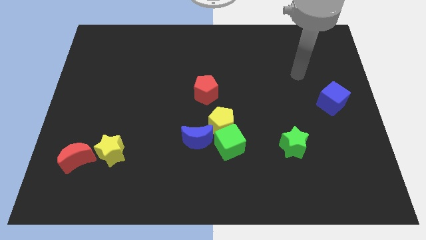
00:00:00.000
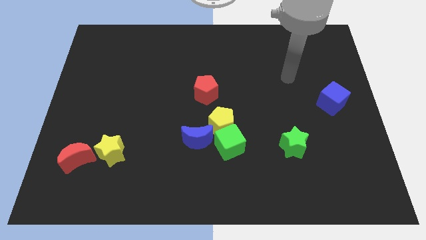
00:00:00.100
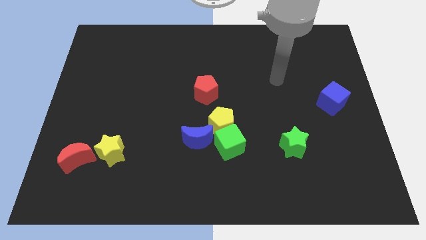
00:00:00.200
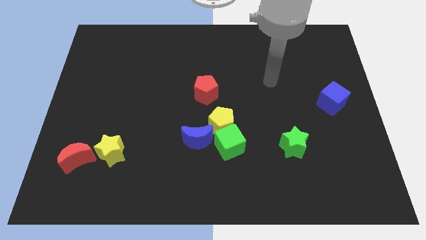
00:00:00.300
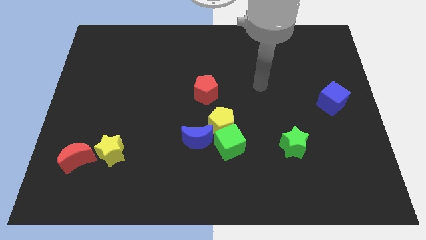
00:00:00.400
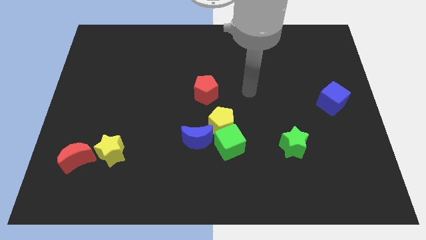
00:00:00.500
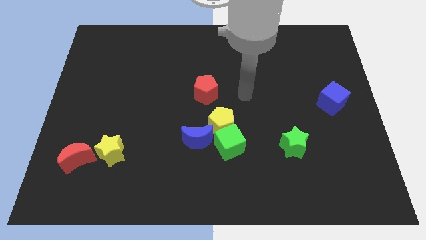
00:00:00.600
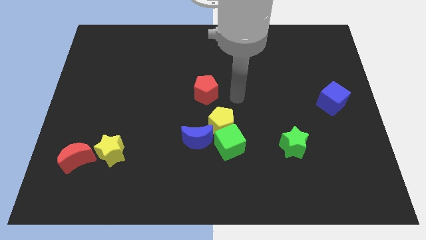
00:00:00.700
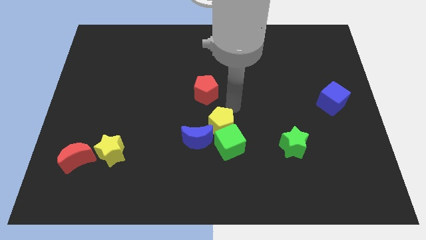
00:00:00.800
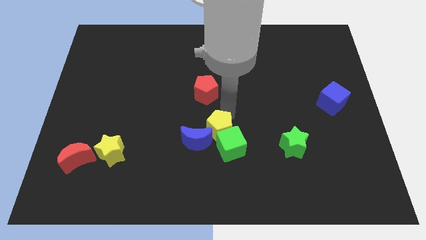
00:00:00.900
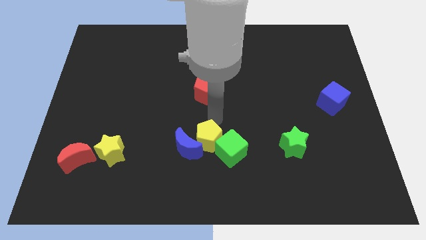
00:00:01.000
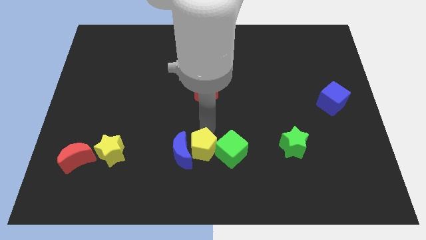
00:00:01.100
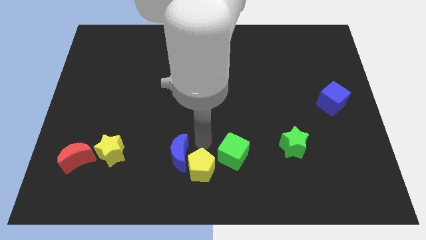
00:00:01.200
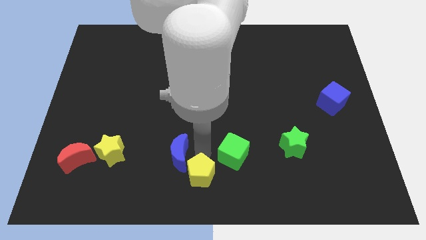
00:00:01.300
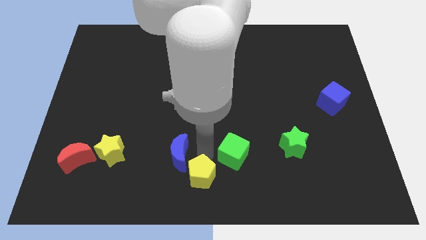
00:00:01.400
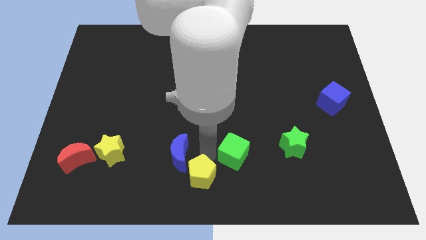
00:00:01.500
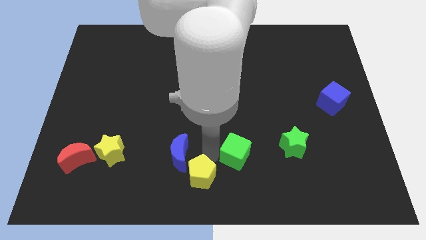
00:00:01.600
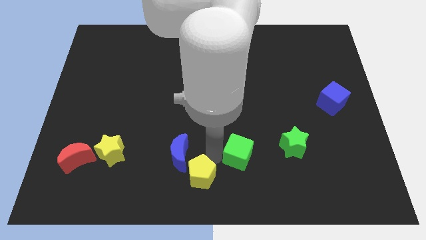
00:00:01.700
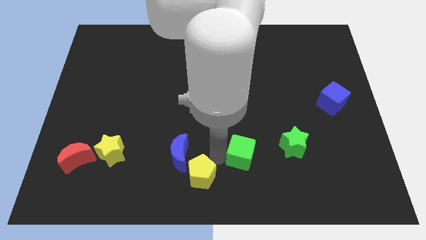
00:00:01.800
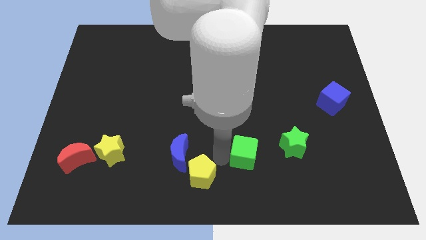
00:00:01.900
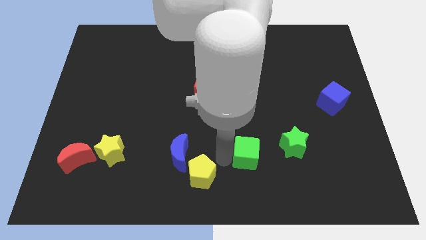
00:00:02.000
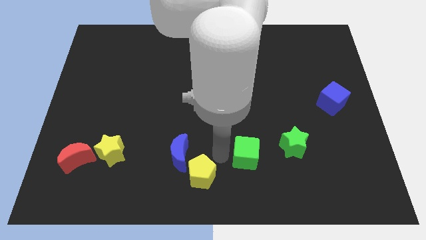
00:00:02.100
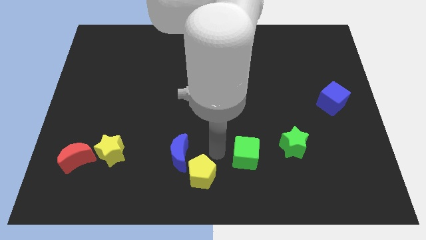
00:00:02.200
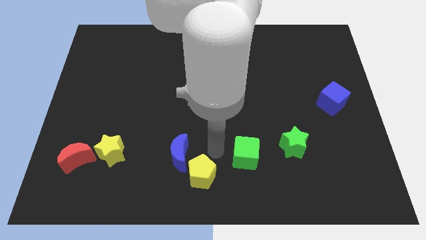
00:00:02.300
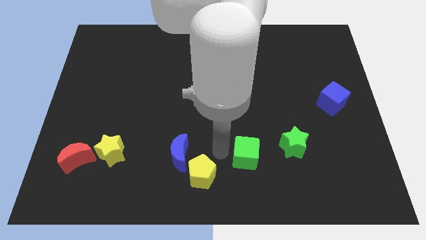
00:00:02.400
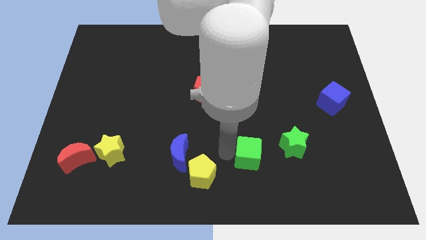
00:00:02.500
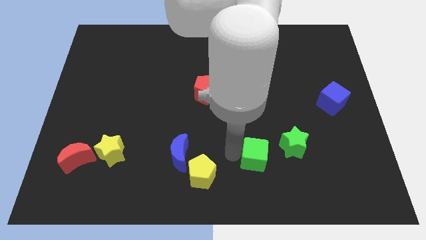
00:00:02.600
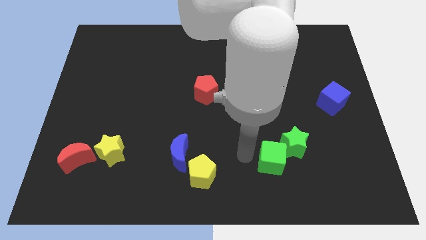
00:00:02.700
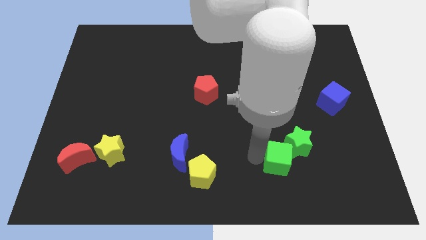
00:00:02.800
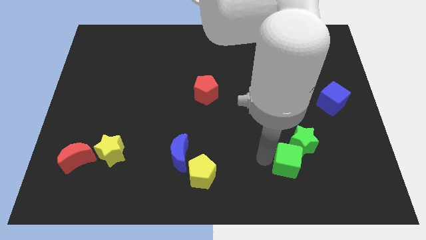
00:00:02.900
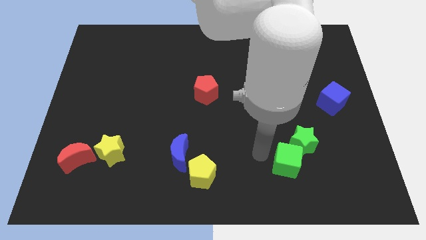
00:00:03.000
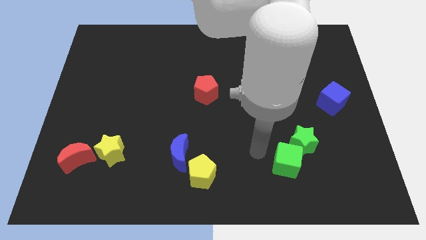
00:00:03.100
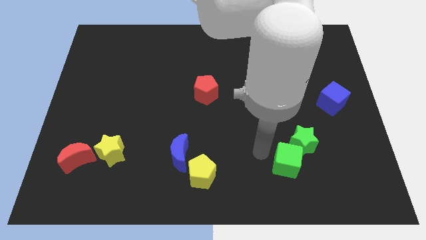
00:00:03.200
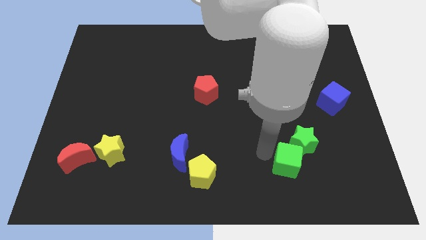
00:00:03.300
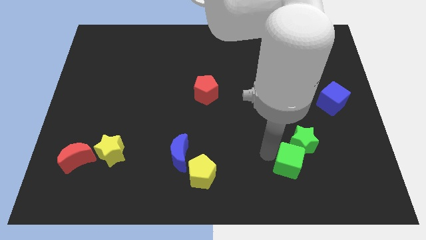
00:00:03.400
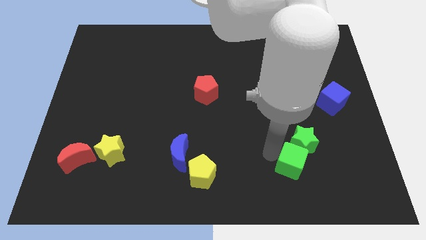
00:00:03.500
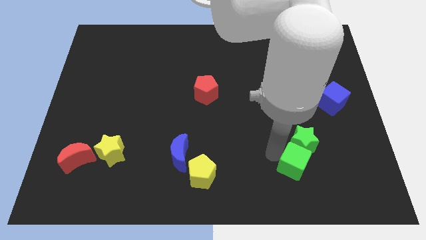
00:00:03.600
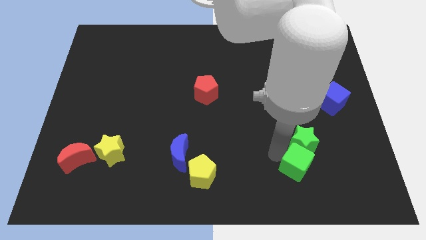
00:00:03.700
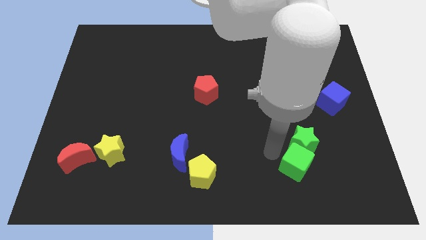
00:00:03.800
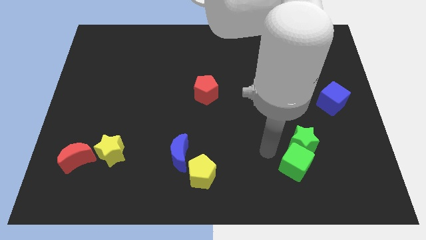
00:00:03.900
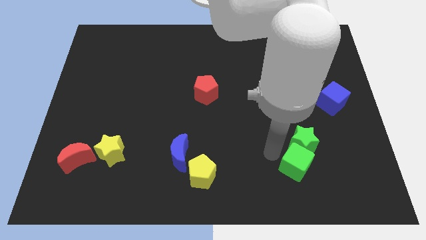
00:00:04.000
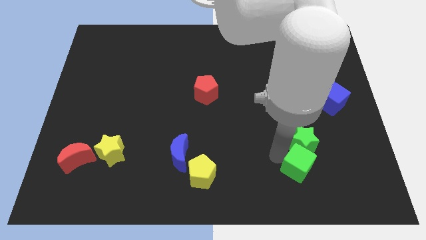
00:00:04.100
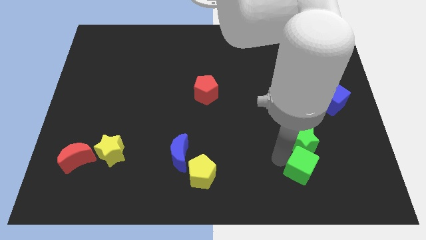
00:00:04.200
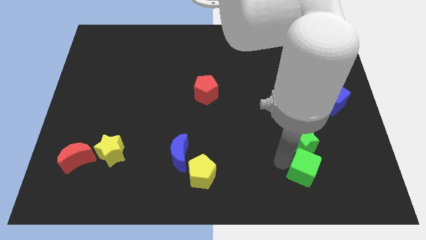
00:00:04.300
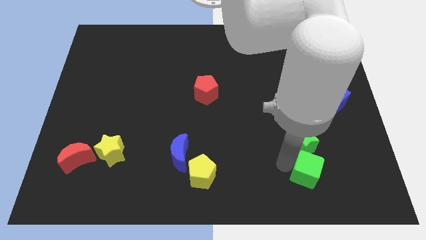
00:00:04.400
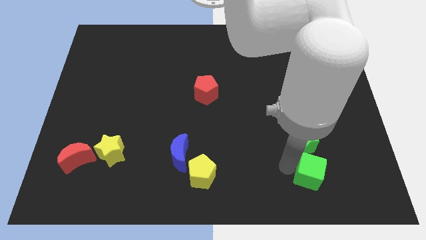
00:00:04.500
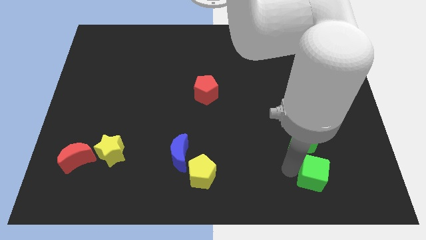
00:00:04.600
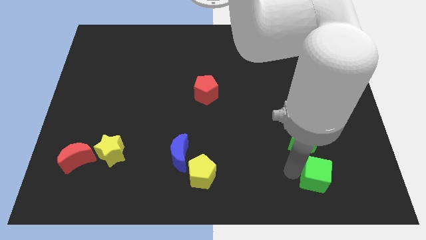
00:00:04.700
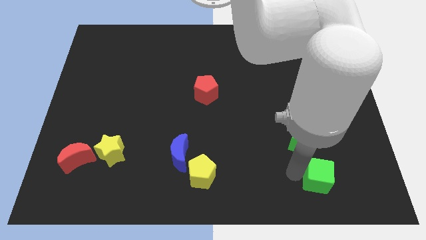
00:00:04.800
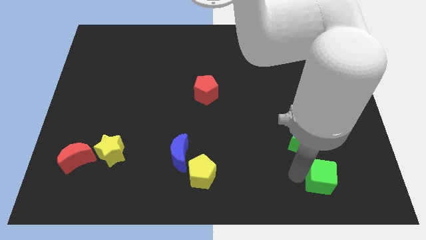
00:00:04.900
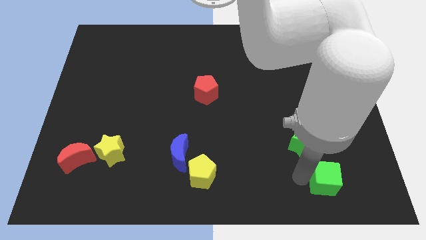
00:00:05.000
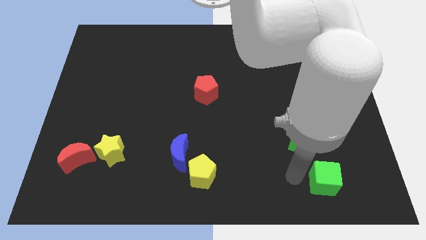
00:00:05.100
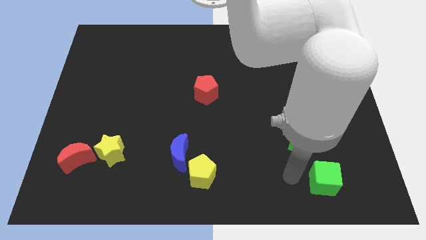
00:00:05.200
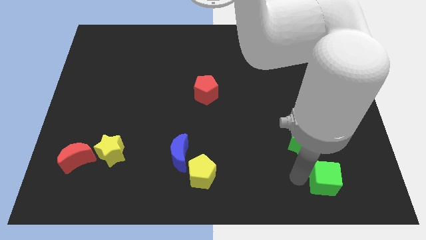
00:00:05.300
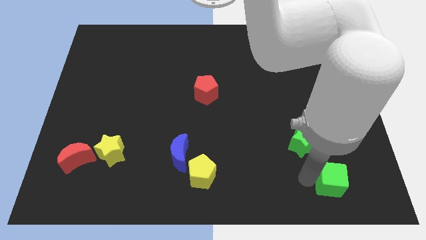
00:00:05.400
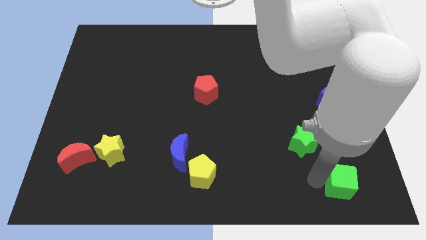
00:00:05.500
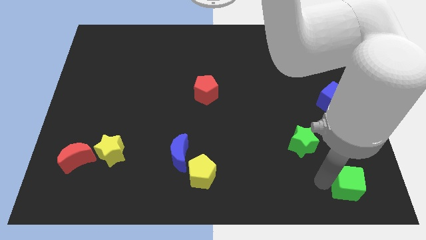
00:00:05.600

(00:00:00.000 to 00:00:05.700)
move the green cube to the bottom right of the board

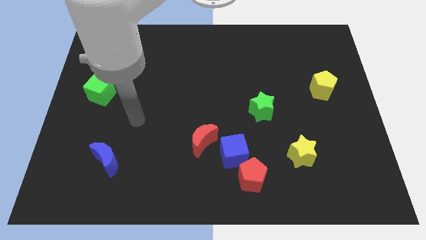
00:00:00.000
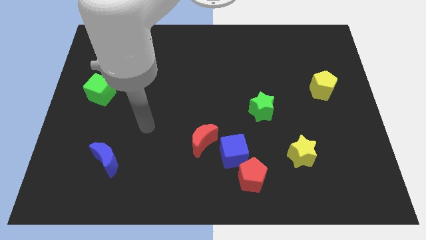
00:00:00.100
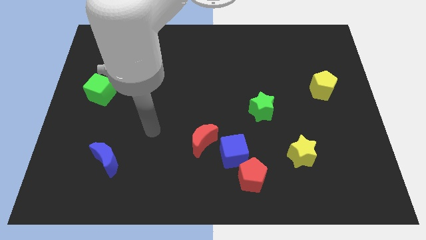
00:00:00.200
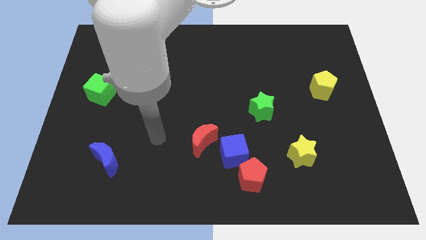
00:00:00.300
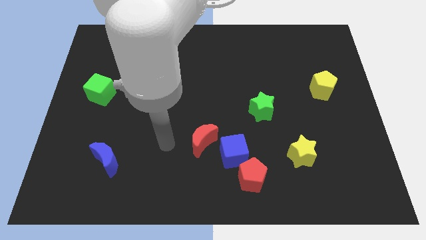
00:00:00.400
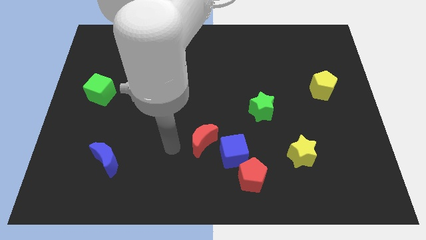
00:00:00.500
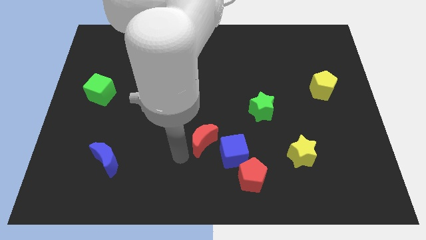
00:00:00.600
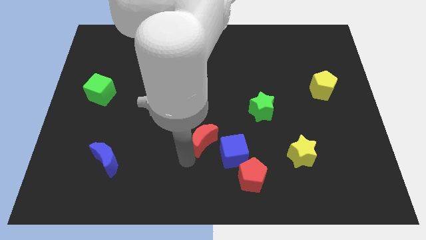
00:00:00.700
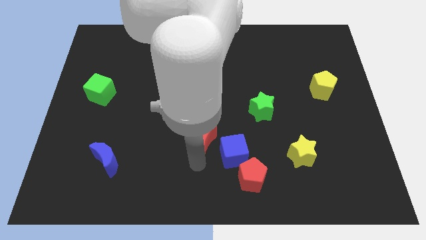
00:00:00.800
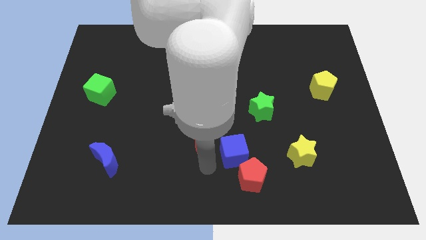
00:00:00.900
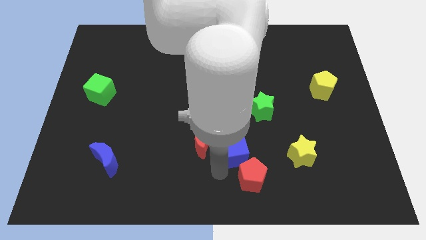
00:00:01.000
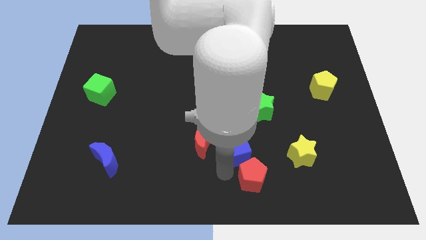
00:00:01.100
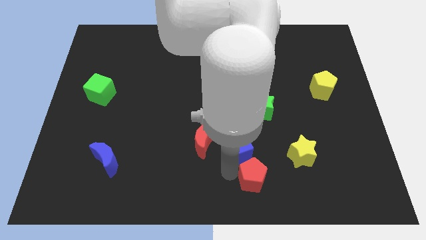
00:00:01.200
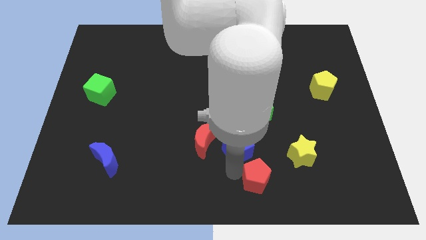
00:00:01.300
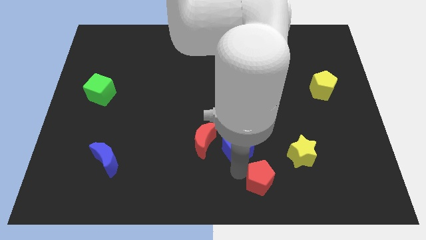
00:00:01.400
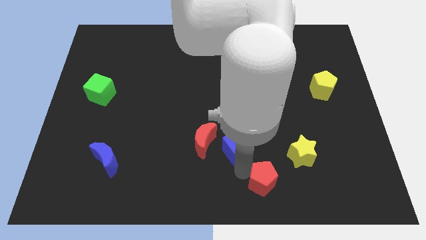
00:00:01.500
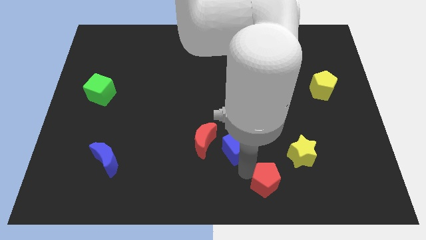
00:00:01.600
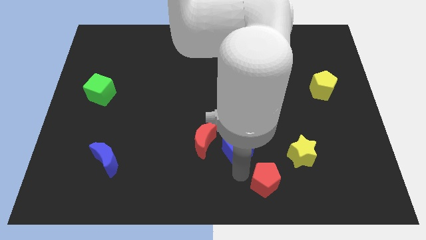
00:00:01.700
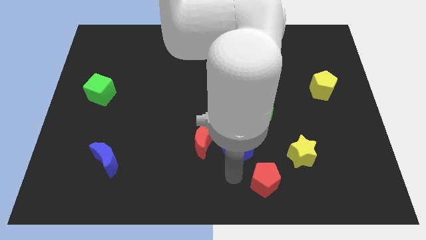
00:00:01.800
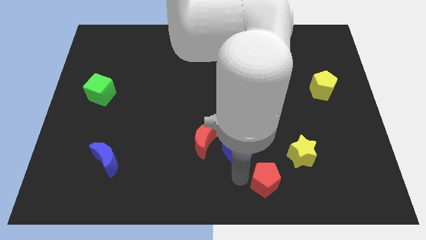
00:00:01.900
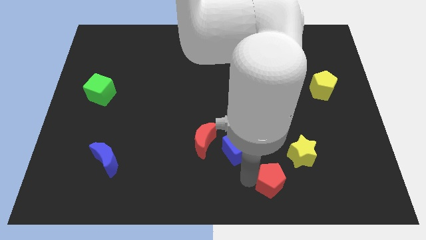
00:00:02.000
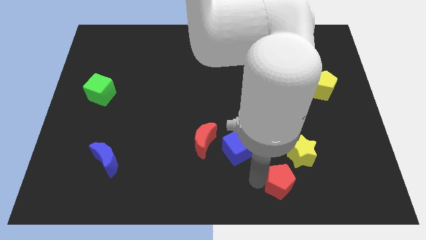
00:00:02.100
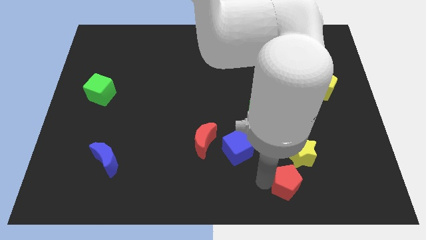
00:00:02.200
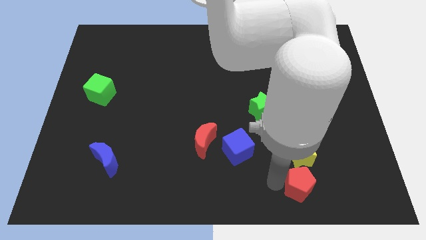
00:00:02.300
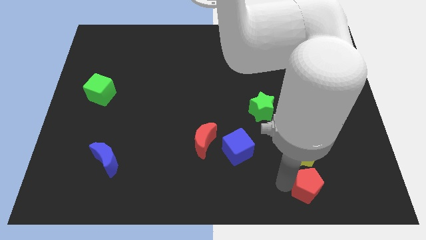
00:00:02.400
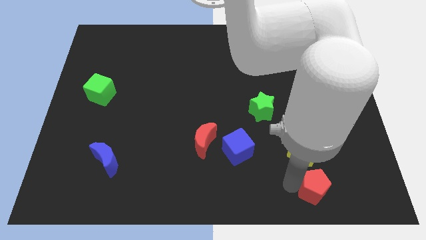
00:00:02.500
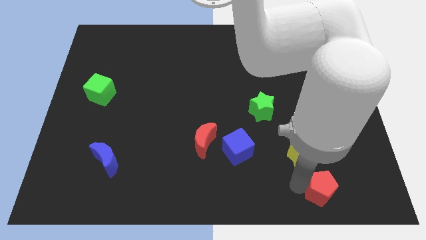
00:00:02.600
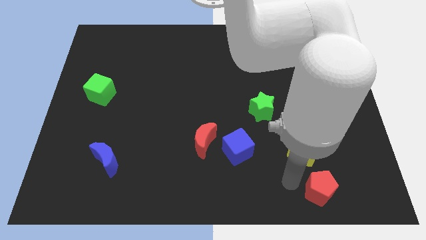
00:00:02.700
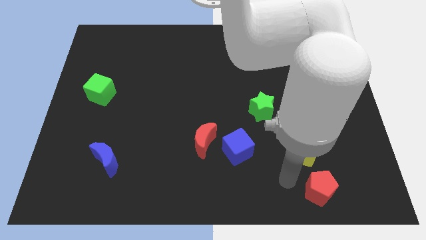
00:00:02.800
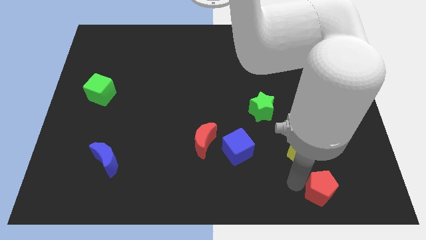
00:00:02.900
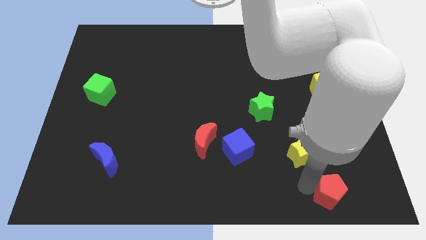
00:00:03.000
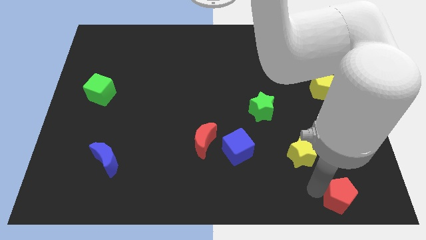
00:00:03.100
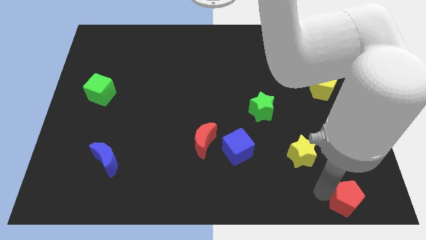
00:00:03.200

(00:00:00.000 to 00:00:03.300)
slide the red pentagon to the bottom right corner
